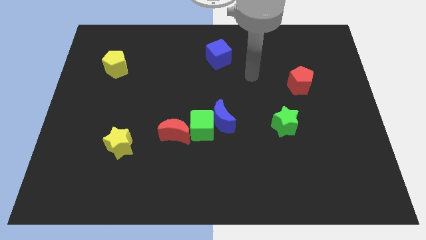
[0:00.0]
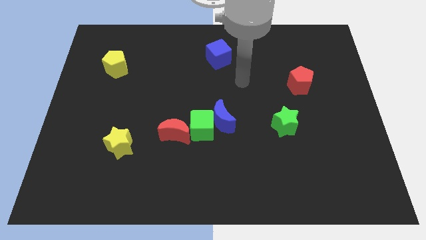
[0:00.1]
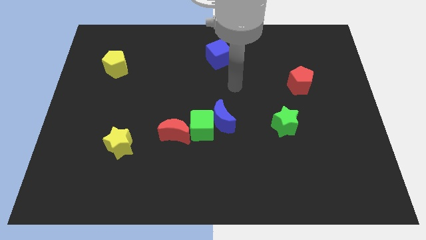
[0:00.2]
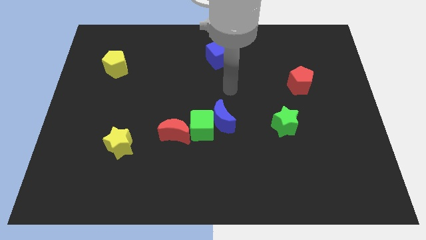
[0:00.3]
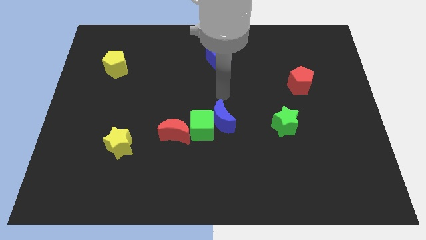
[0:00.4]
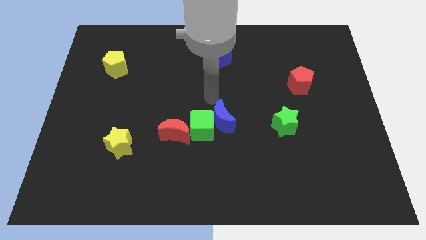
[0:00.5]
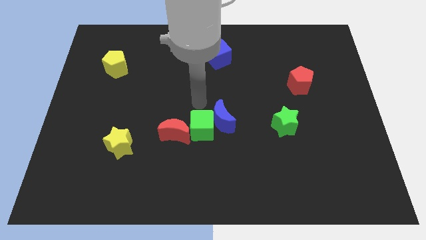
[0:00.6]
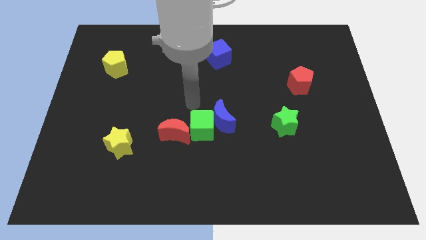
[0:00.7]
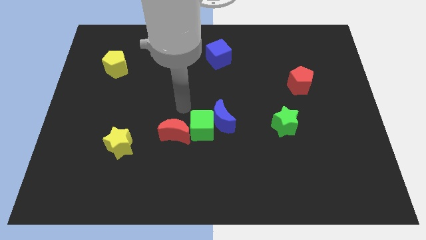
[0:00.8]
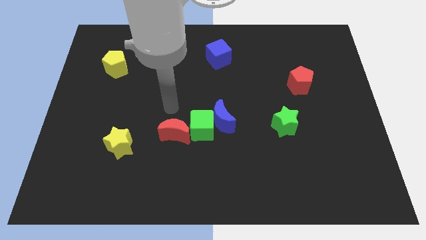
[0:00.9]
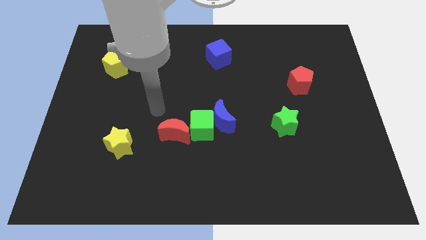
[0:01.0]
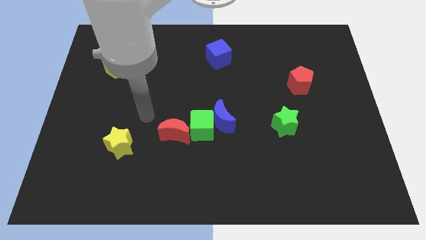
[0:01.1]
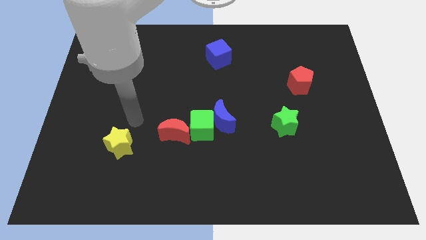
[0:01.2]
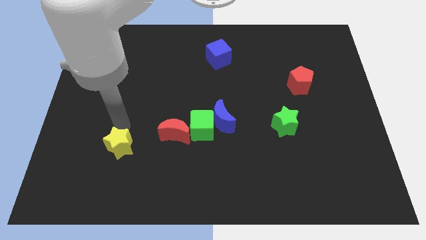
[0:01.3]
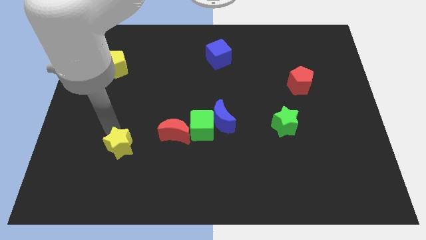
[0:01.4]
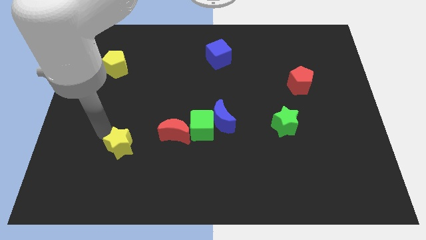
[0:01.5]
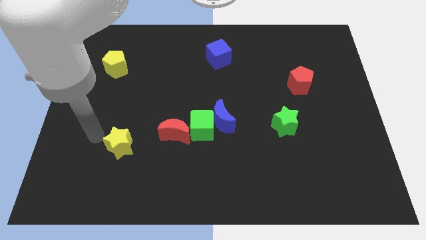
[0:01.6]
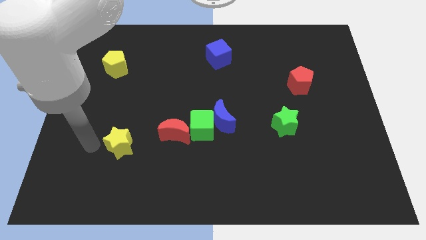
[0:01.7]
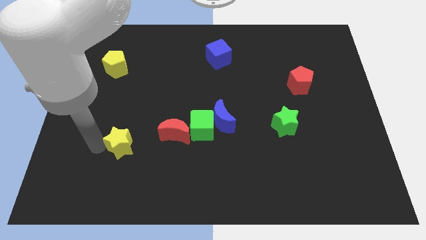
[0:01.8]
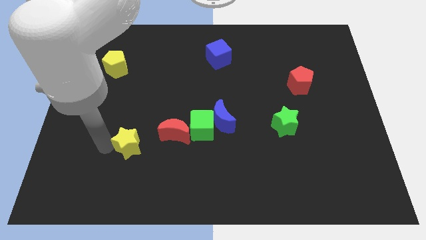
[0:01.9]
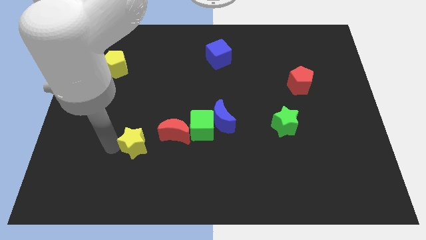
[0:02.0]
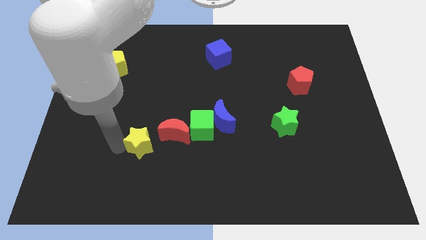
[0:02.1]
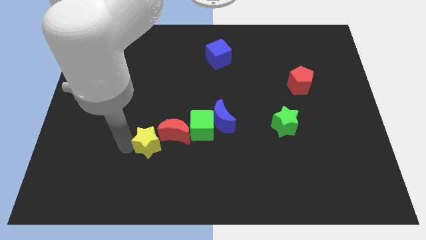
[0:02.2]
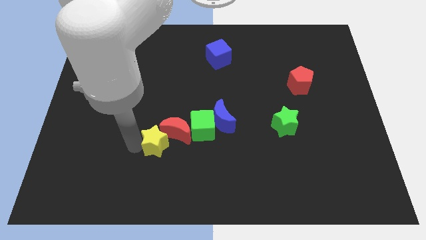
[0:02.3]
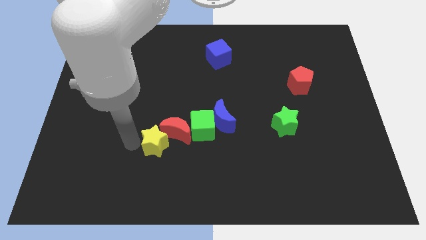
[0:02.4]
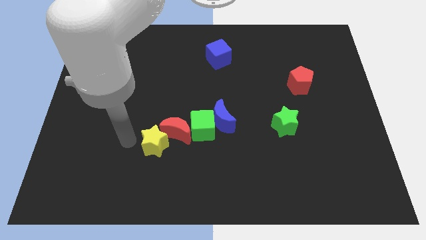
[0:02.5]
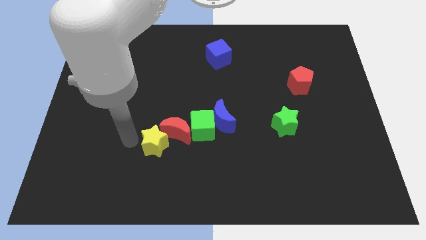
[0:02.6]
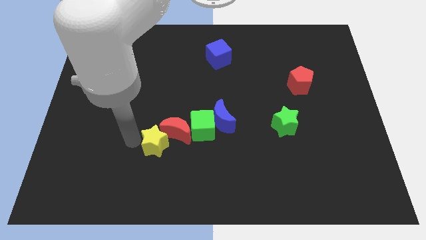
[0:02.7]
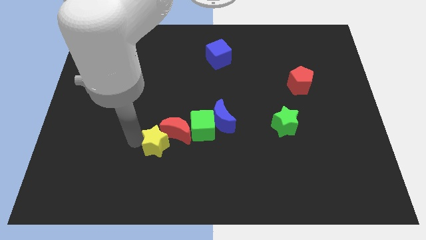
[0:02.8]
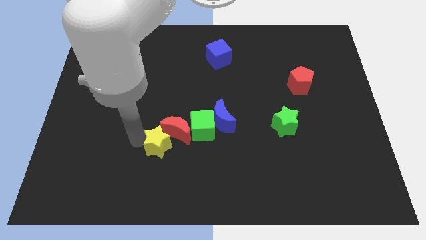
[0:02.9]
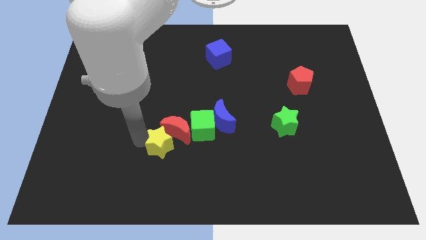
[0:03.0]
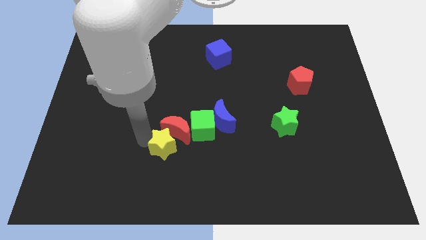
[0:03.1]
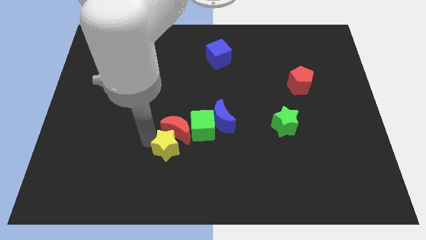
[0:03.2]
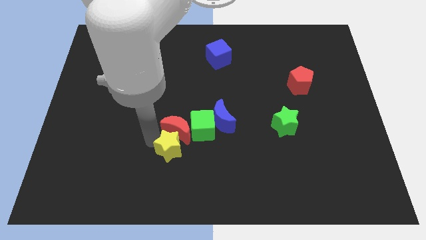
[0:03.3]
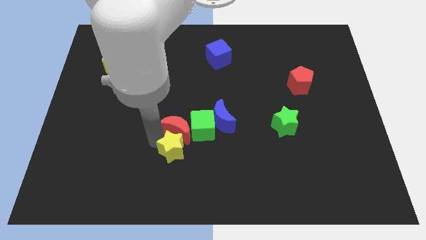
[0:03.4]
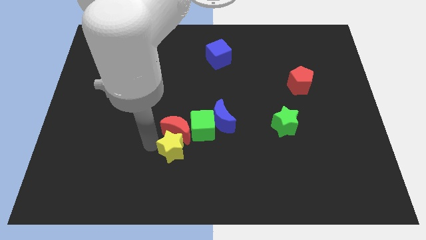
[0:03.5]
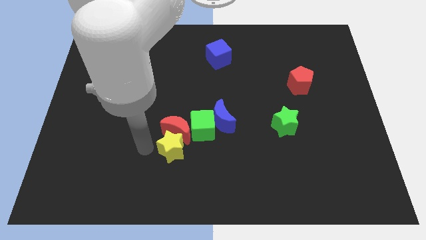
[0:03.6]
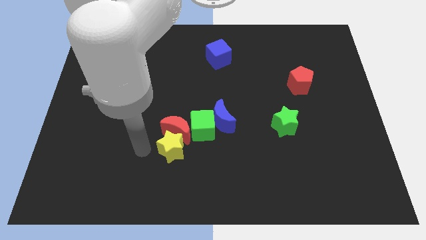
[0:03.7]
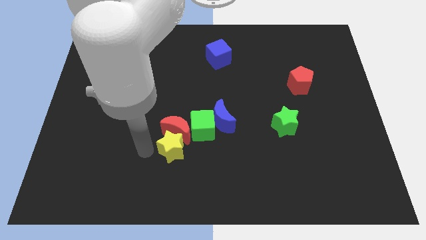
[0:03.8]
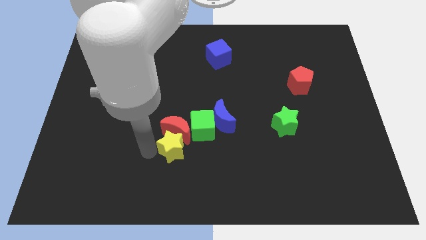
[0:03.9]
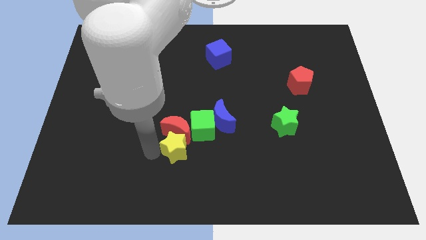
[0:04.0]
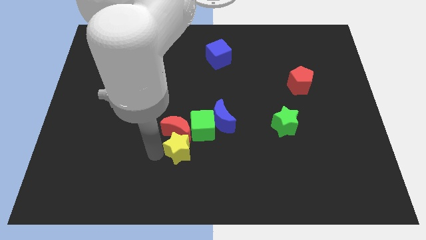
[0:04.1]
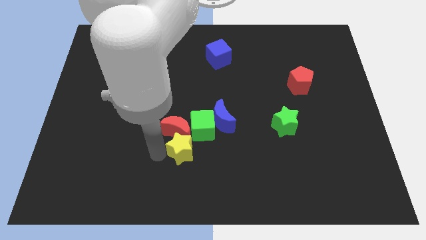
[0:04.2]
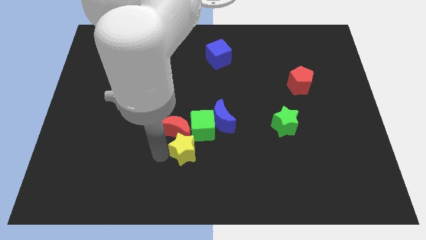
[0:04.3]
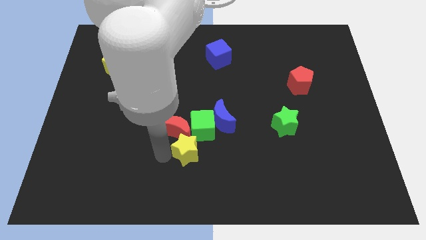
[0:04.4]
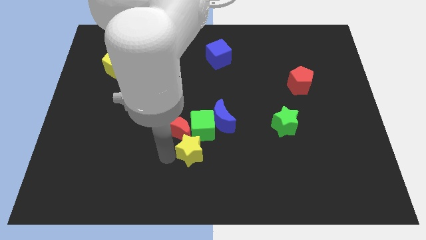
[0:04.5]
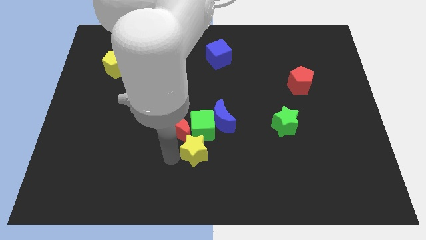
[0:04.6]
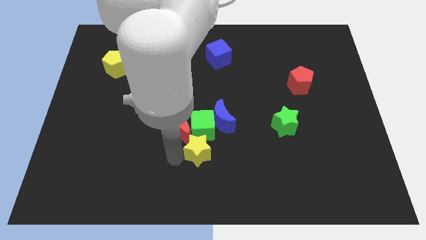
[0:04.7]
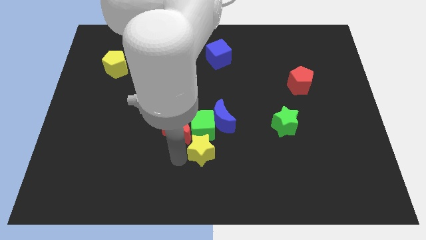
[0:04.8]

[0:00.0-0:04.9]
slide the yellow star diagonally down and to the right of the green cube

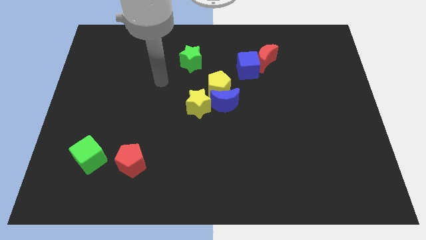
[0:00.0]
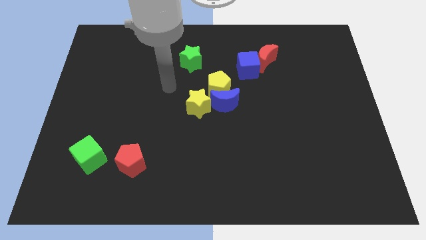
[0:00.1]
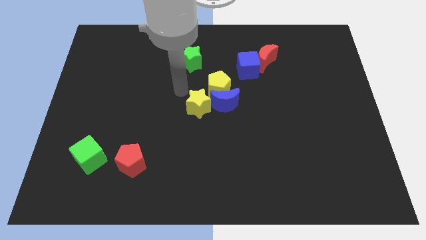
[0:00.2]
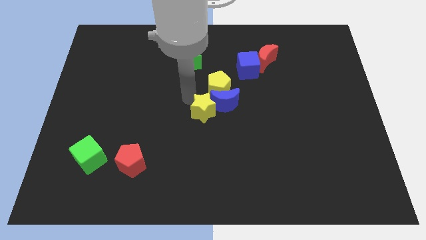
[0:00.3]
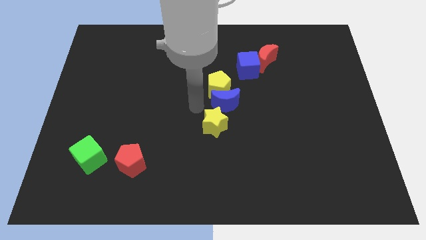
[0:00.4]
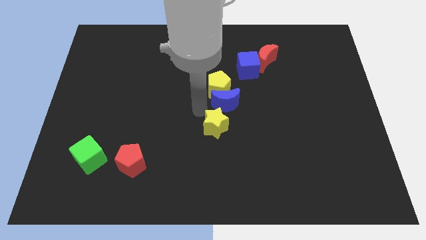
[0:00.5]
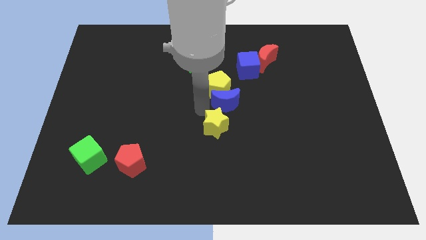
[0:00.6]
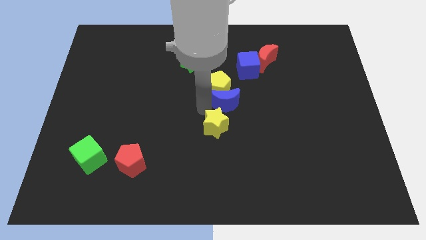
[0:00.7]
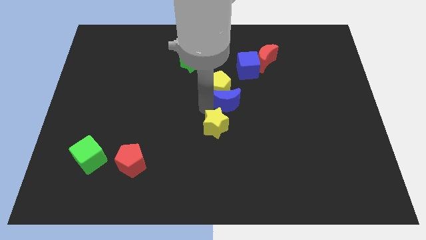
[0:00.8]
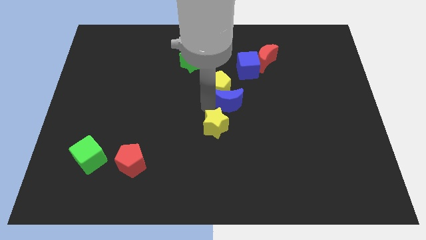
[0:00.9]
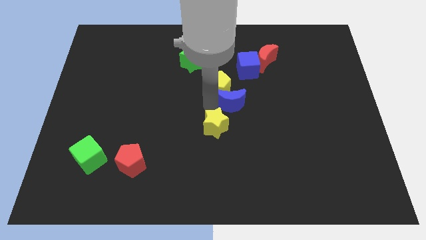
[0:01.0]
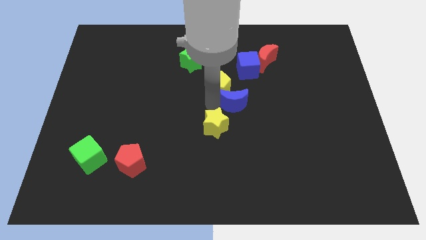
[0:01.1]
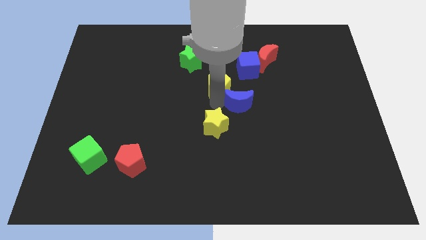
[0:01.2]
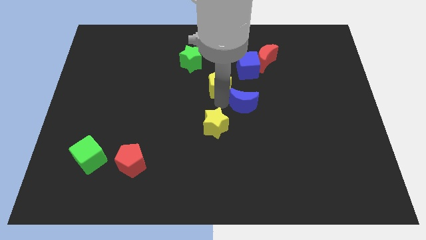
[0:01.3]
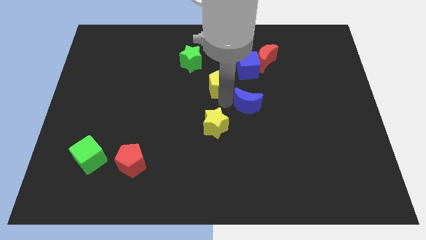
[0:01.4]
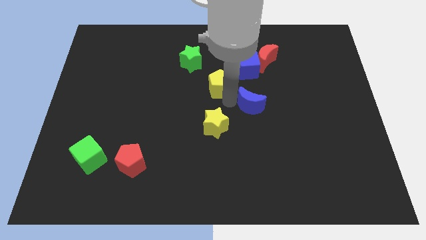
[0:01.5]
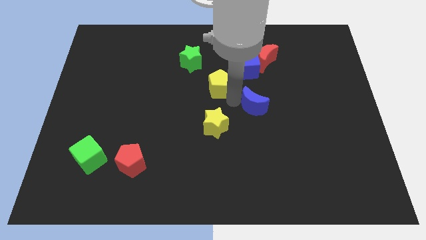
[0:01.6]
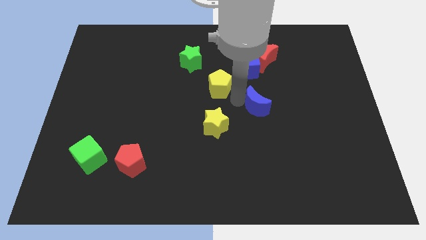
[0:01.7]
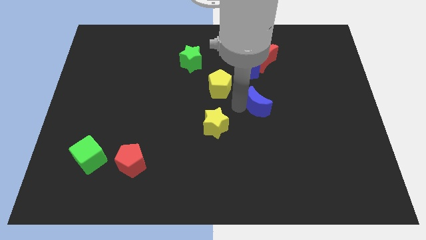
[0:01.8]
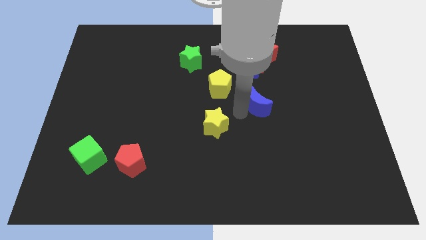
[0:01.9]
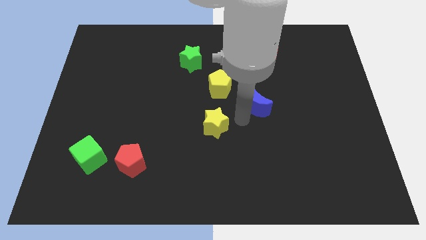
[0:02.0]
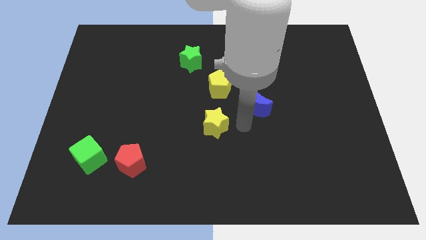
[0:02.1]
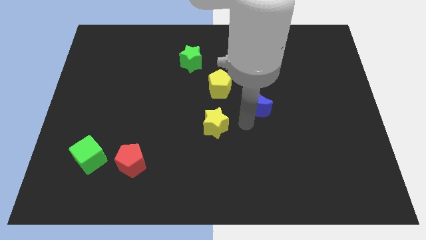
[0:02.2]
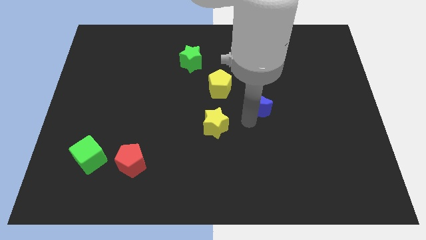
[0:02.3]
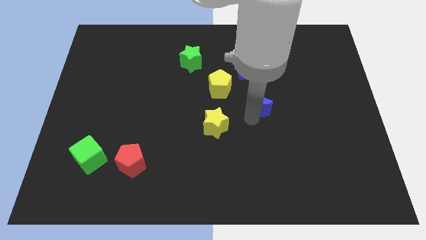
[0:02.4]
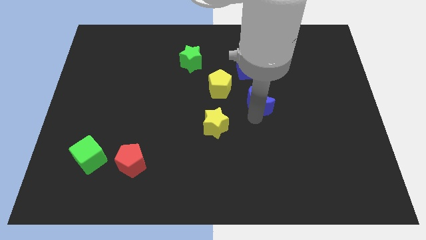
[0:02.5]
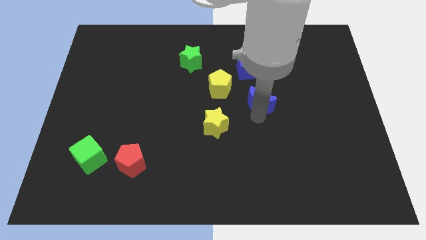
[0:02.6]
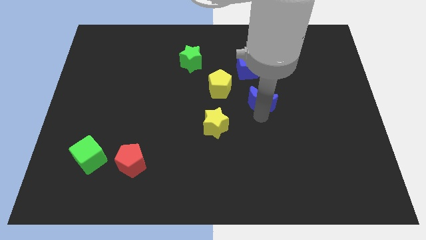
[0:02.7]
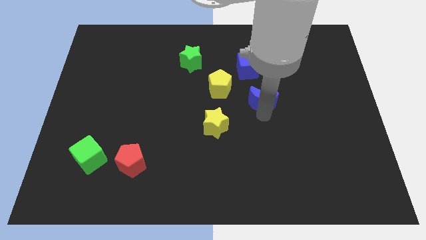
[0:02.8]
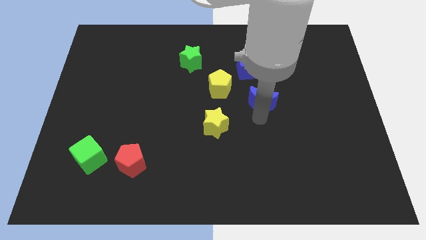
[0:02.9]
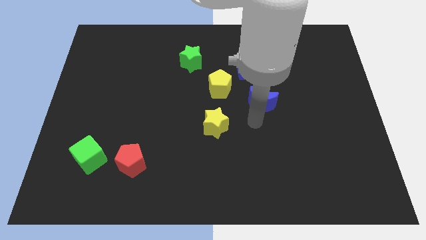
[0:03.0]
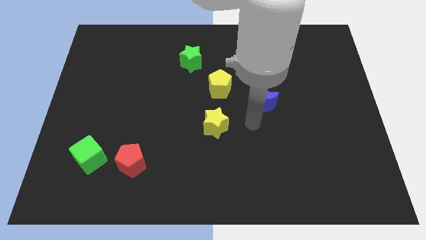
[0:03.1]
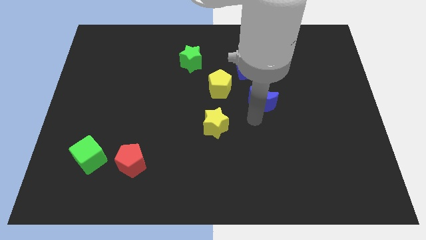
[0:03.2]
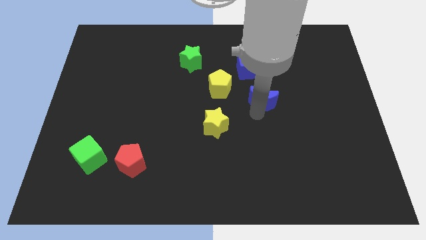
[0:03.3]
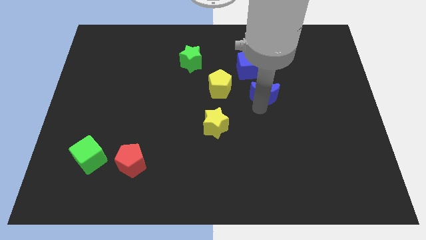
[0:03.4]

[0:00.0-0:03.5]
slide the blue moon to the bottom right side of the blue cube
